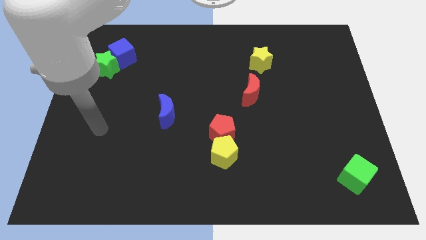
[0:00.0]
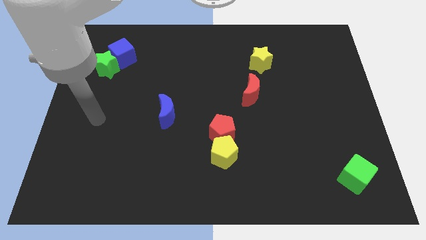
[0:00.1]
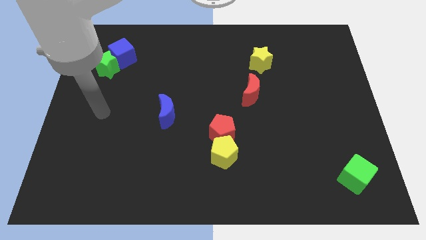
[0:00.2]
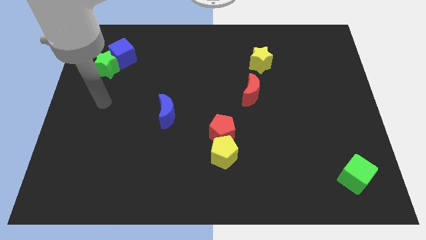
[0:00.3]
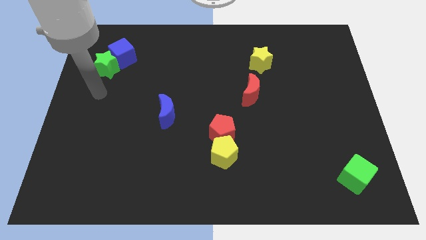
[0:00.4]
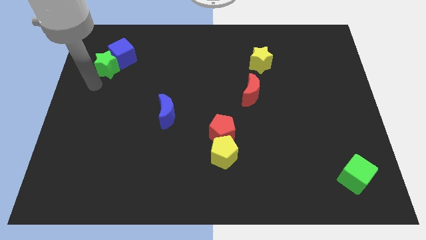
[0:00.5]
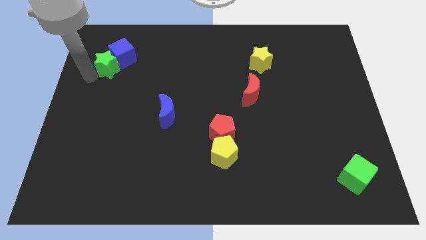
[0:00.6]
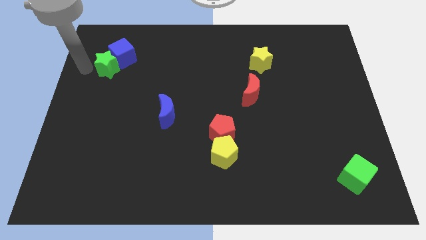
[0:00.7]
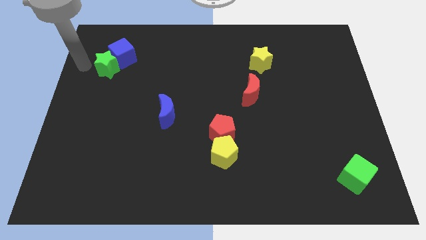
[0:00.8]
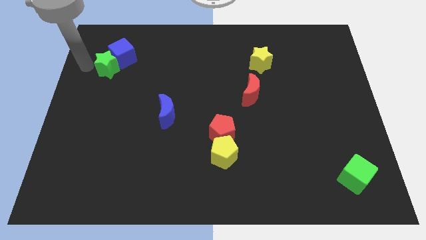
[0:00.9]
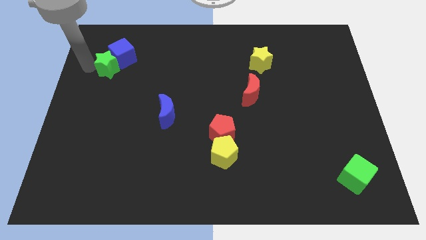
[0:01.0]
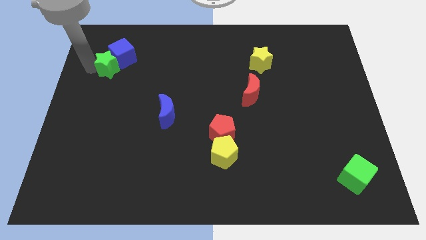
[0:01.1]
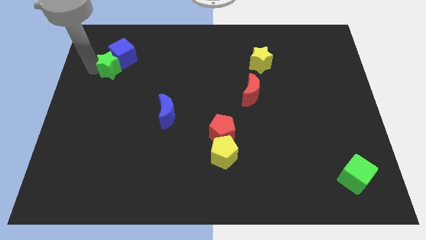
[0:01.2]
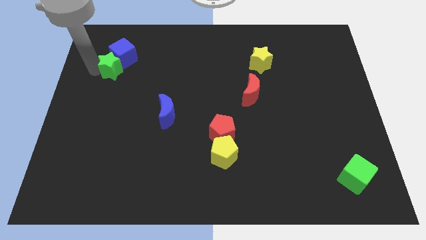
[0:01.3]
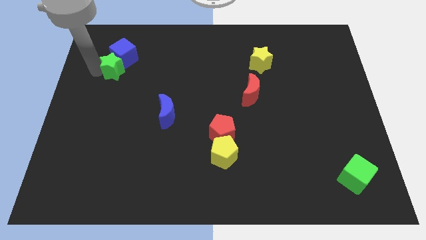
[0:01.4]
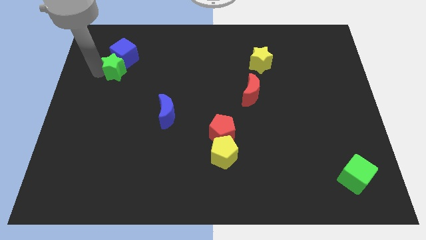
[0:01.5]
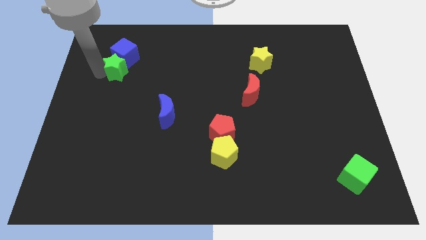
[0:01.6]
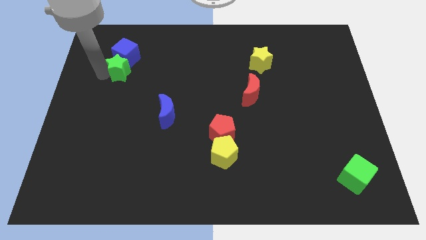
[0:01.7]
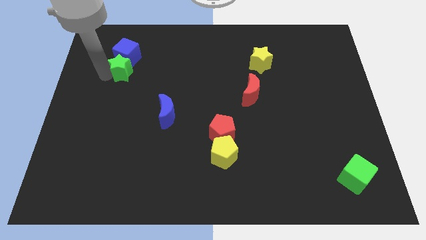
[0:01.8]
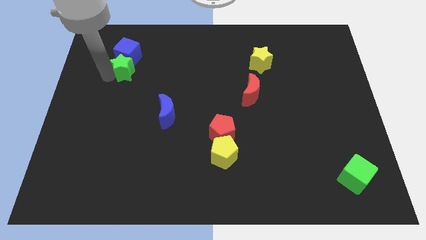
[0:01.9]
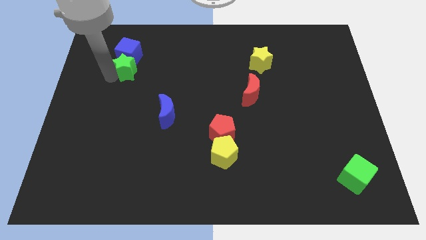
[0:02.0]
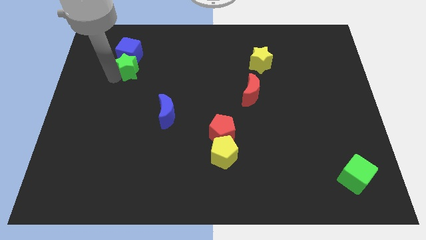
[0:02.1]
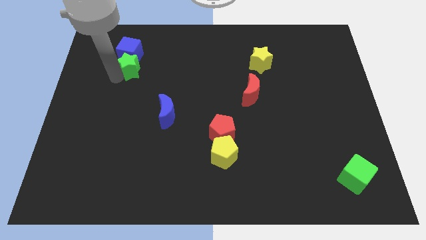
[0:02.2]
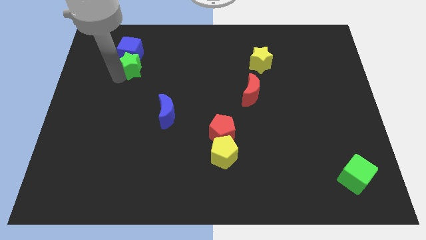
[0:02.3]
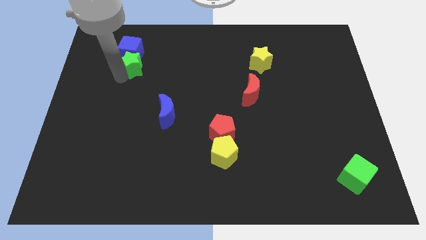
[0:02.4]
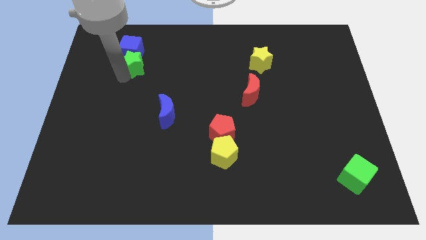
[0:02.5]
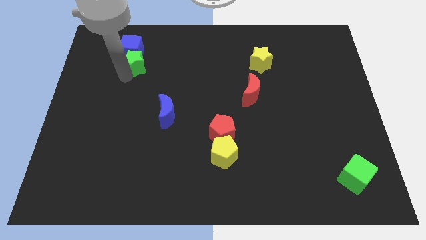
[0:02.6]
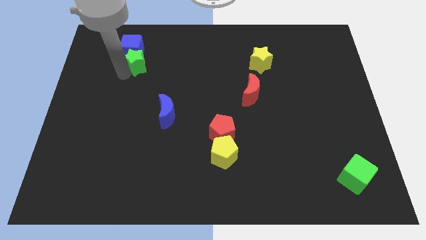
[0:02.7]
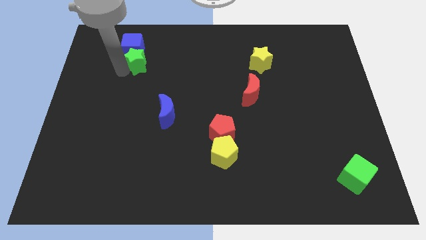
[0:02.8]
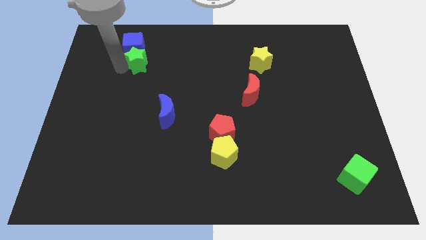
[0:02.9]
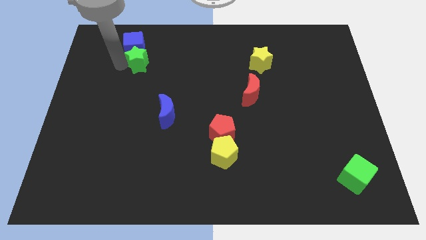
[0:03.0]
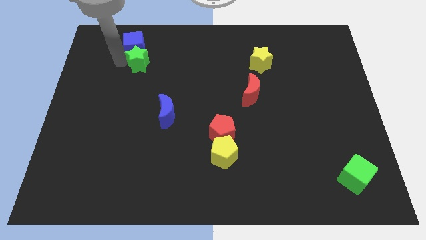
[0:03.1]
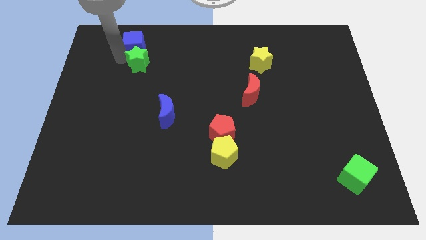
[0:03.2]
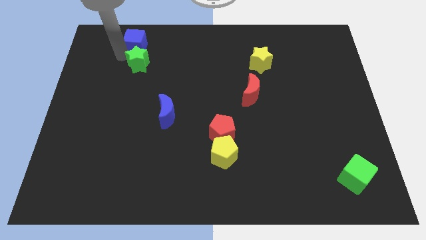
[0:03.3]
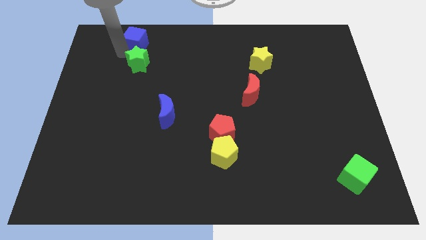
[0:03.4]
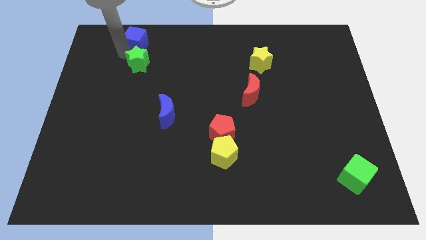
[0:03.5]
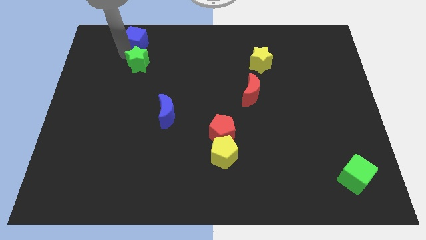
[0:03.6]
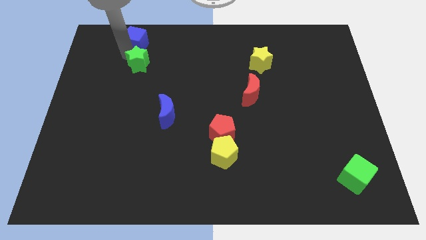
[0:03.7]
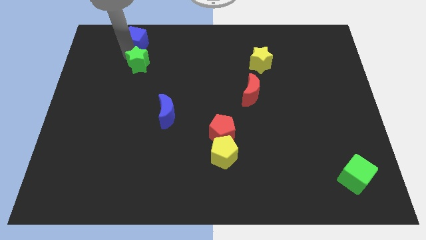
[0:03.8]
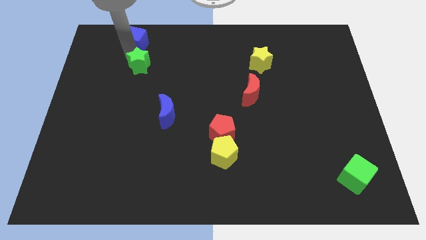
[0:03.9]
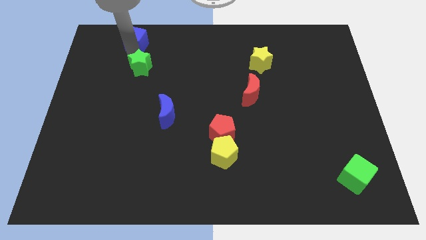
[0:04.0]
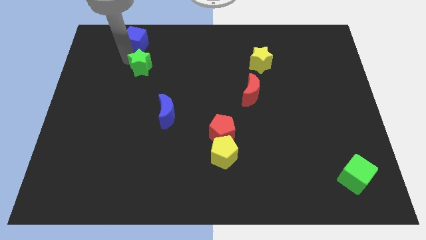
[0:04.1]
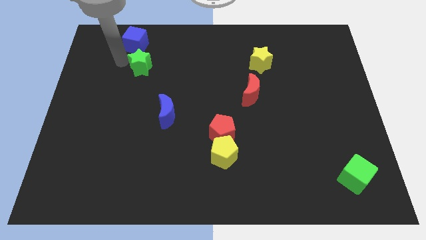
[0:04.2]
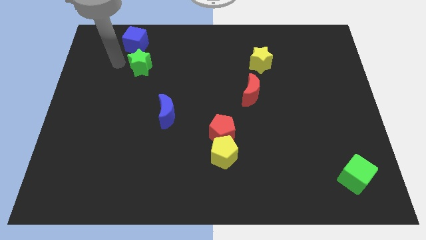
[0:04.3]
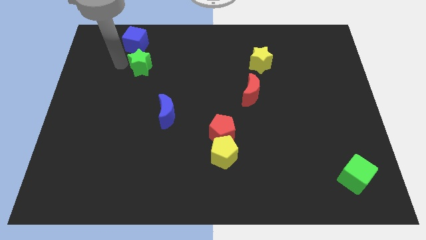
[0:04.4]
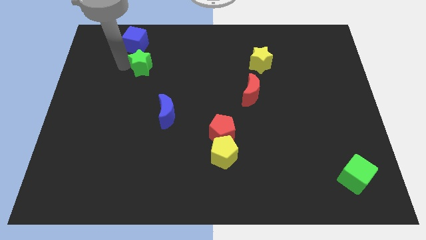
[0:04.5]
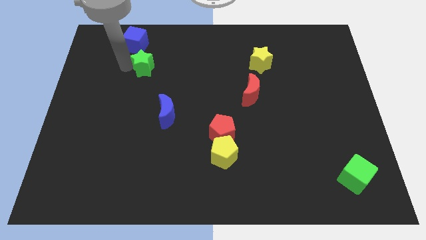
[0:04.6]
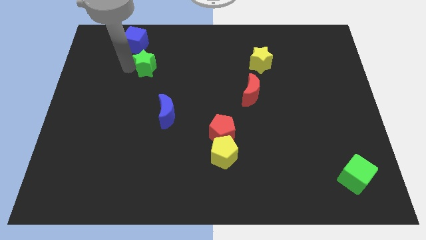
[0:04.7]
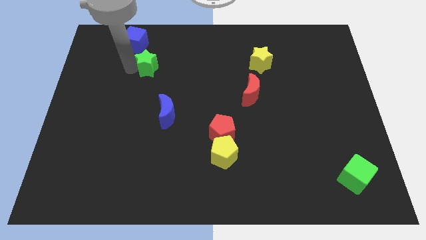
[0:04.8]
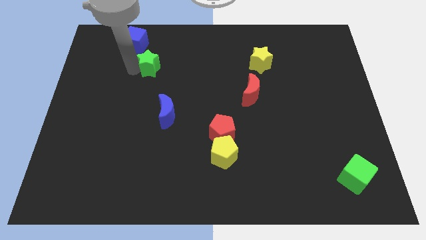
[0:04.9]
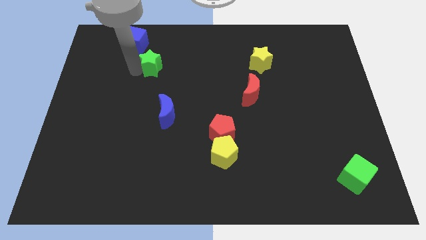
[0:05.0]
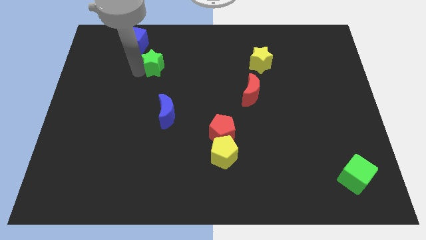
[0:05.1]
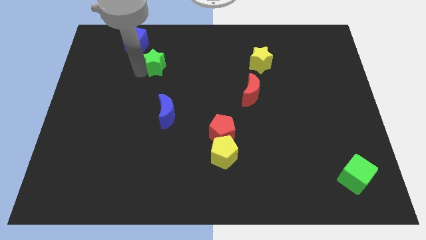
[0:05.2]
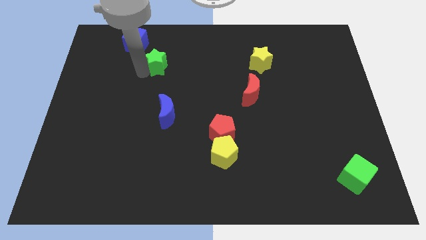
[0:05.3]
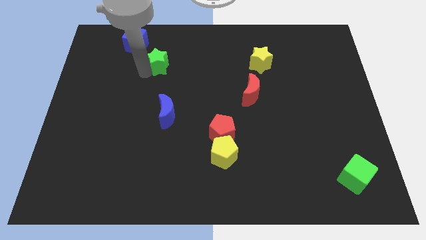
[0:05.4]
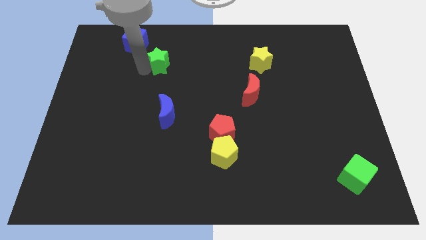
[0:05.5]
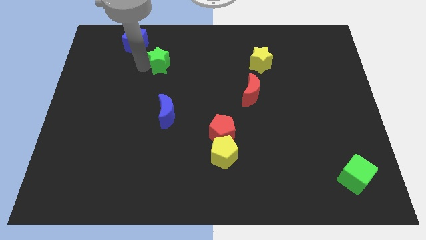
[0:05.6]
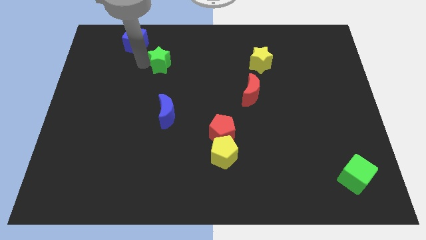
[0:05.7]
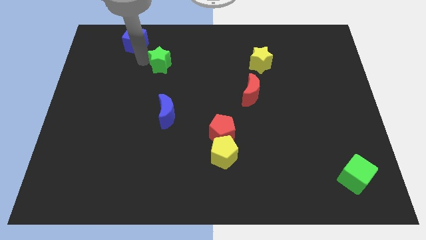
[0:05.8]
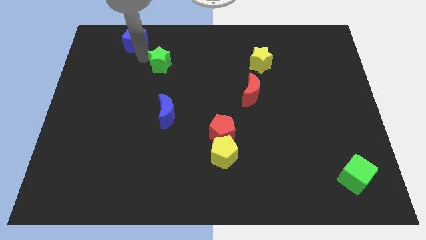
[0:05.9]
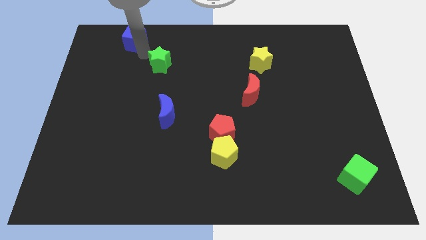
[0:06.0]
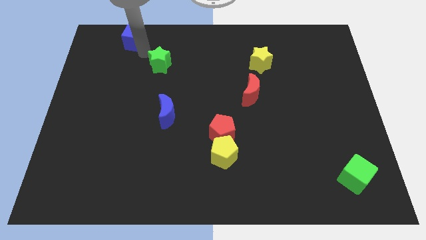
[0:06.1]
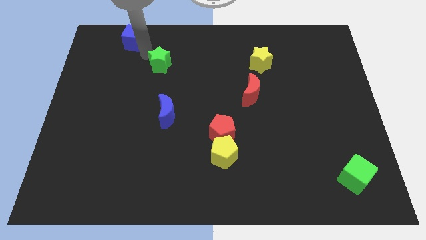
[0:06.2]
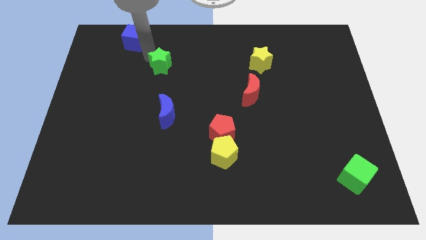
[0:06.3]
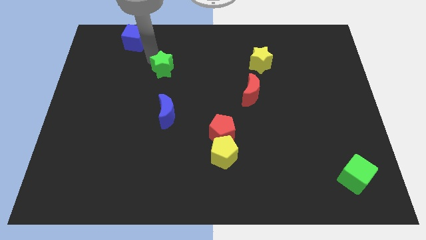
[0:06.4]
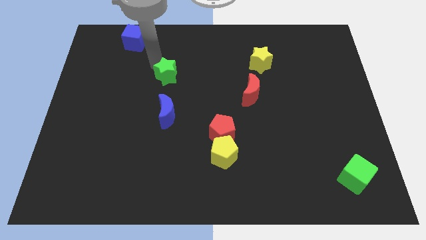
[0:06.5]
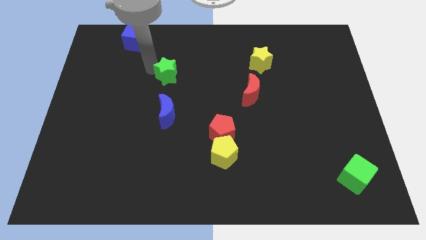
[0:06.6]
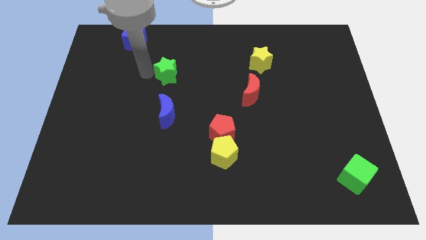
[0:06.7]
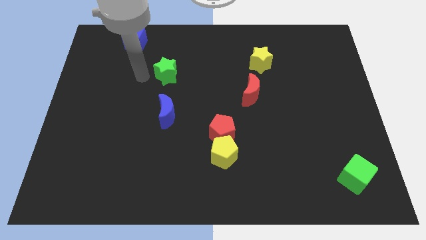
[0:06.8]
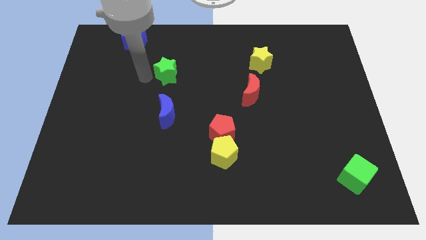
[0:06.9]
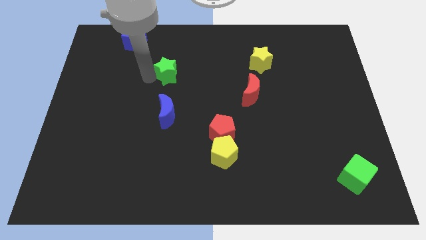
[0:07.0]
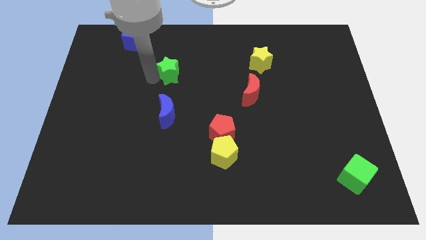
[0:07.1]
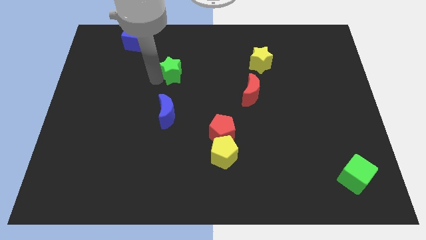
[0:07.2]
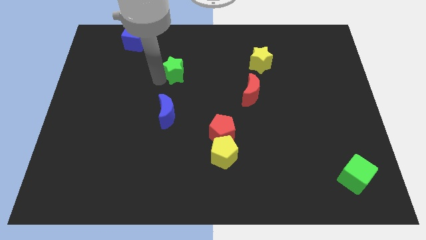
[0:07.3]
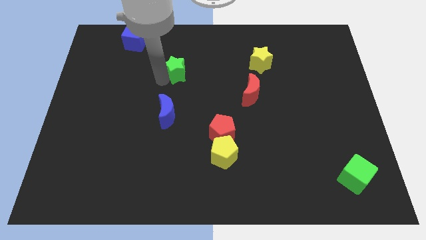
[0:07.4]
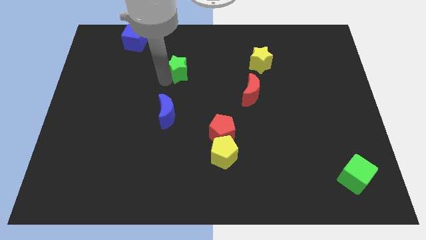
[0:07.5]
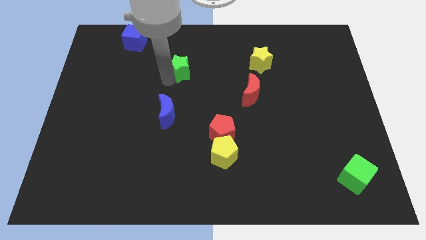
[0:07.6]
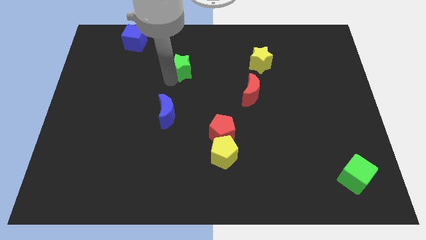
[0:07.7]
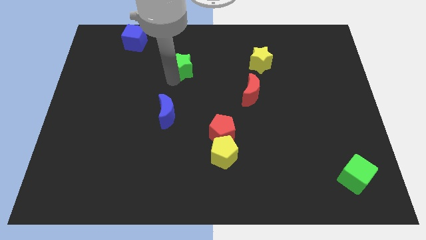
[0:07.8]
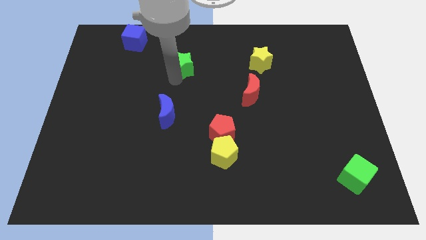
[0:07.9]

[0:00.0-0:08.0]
push the green star right

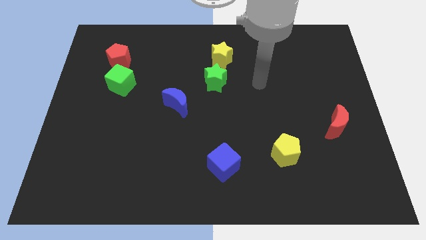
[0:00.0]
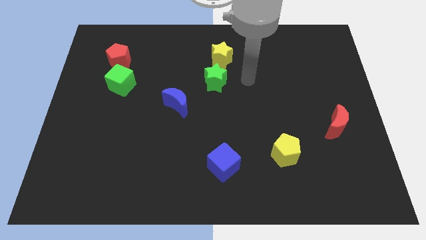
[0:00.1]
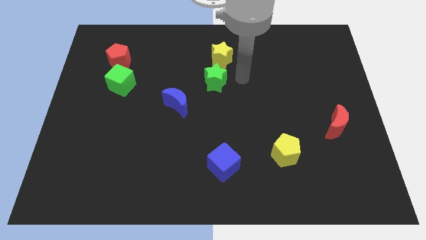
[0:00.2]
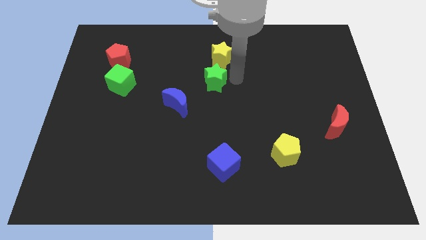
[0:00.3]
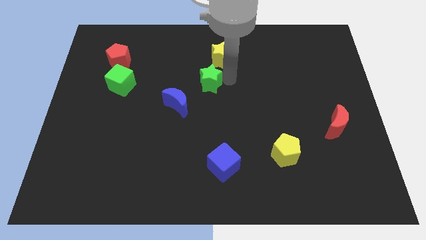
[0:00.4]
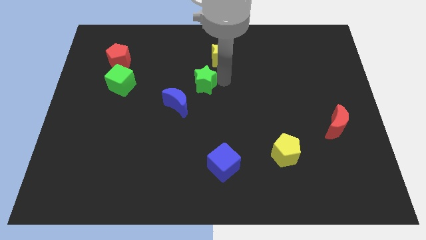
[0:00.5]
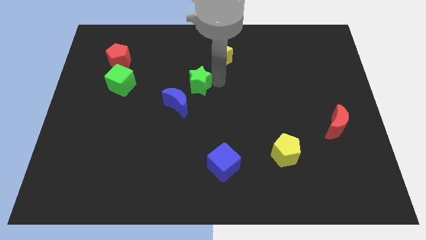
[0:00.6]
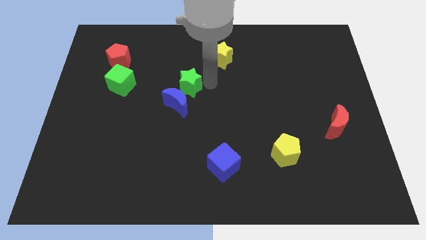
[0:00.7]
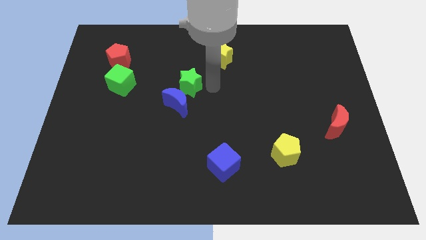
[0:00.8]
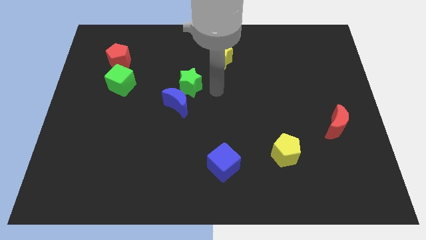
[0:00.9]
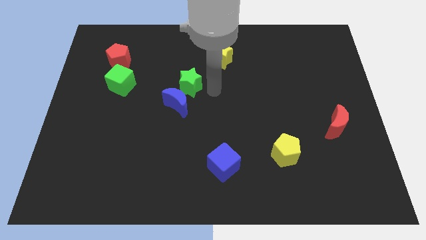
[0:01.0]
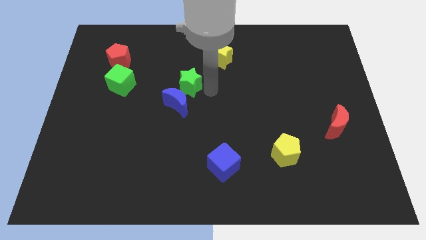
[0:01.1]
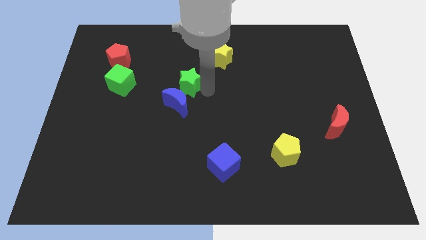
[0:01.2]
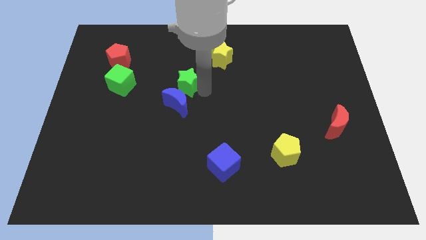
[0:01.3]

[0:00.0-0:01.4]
slightly slide the green star to the left
